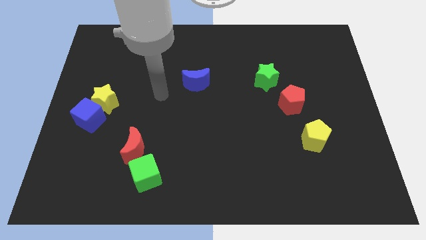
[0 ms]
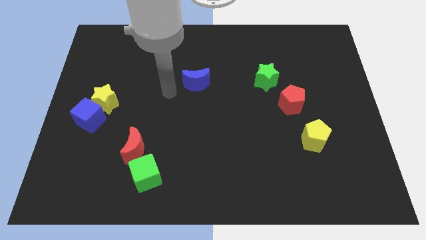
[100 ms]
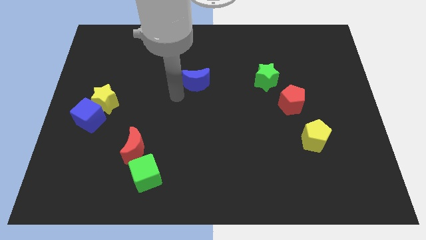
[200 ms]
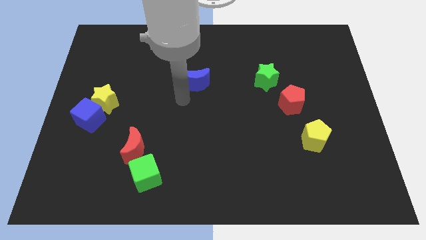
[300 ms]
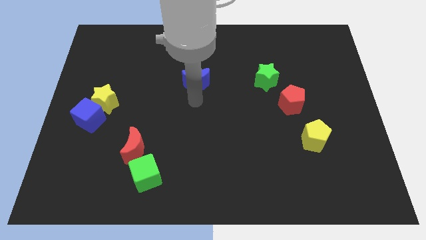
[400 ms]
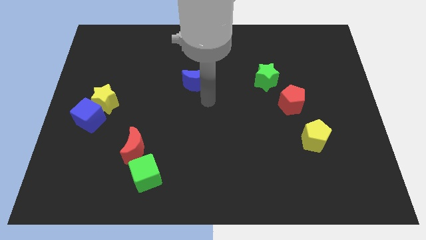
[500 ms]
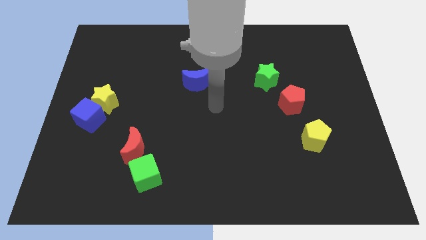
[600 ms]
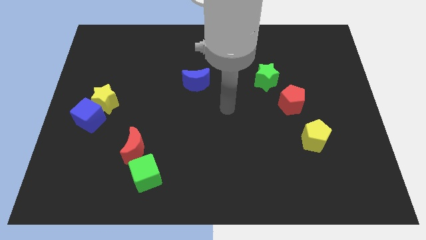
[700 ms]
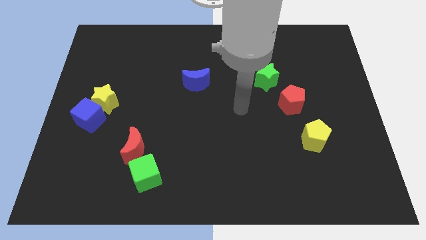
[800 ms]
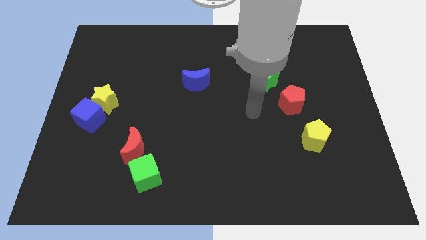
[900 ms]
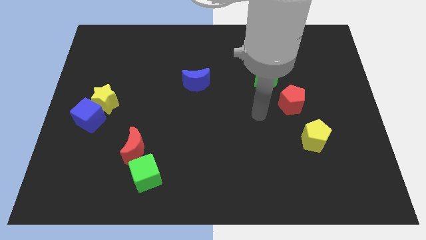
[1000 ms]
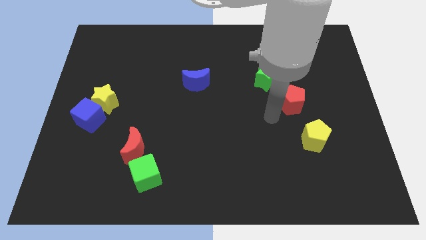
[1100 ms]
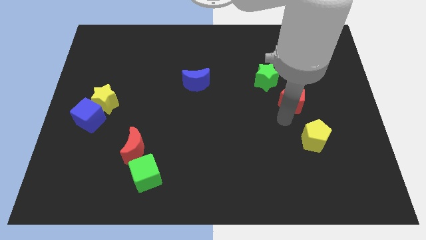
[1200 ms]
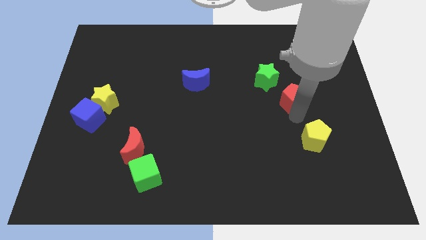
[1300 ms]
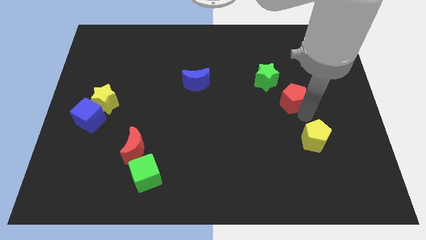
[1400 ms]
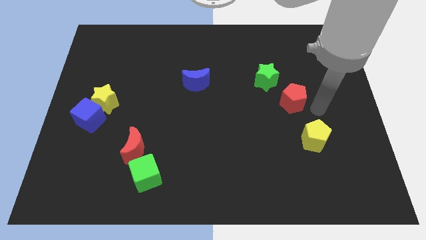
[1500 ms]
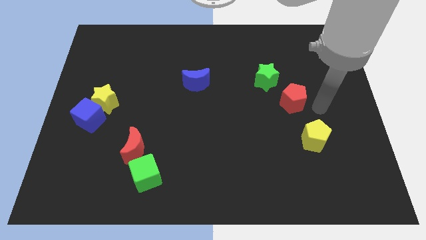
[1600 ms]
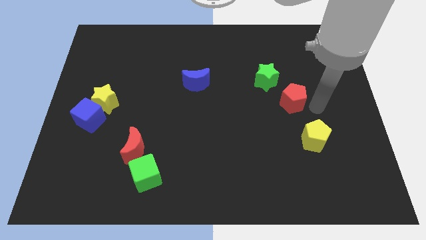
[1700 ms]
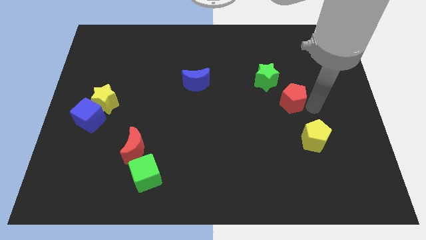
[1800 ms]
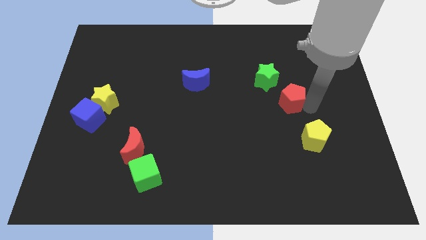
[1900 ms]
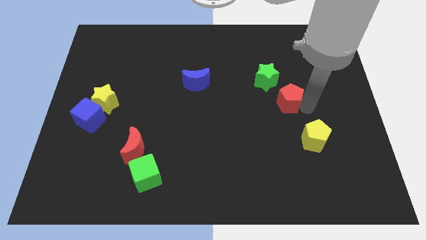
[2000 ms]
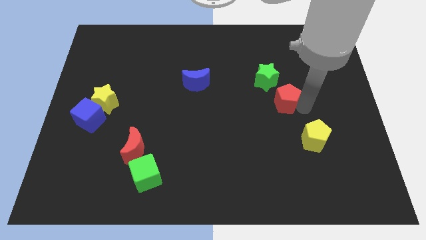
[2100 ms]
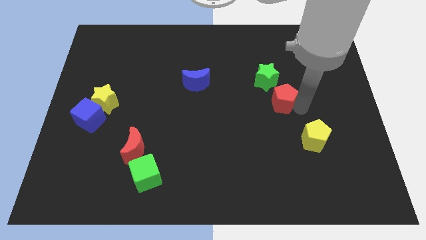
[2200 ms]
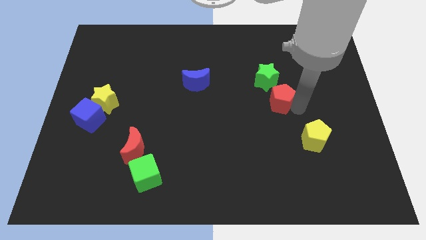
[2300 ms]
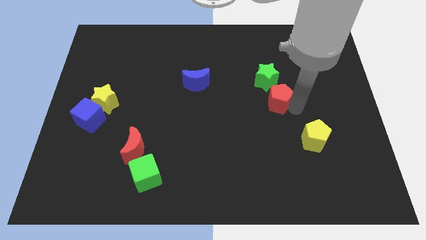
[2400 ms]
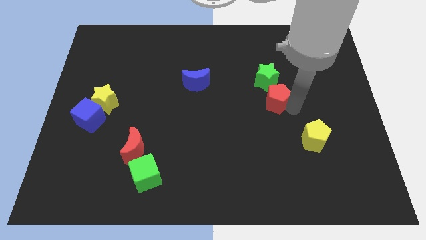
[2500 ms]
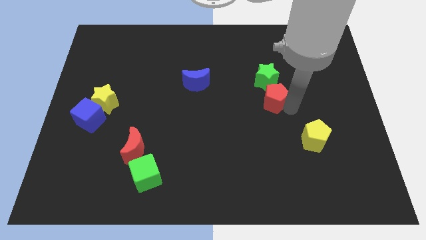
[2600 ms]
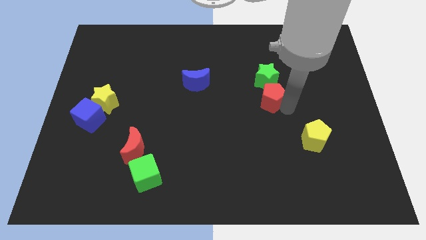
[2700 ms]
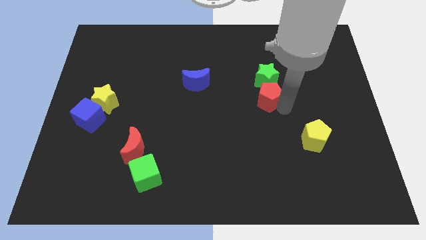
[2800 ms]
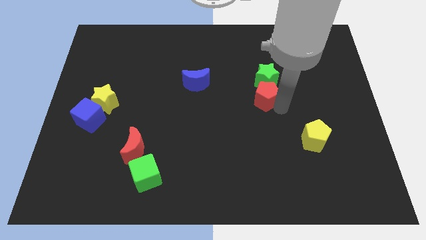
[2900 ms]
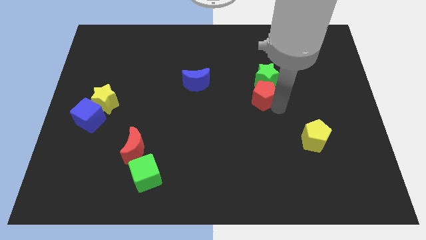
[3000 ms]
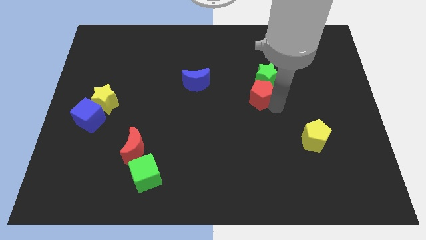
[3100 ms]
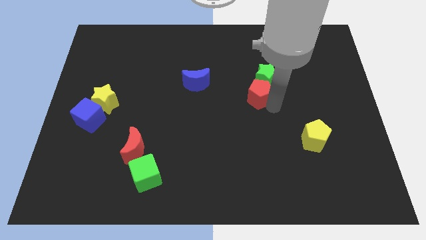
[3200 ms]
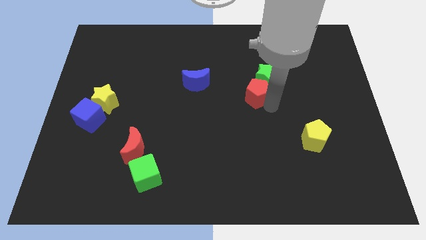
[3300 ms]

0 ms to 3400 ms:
slightly push the red pentagon up and then to the left

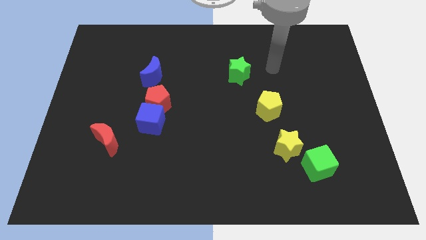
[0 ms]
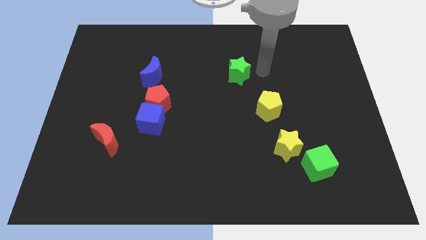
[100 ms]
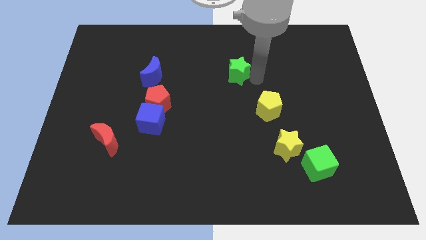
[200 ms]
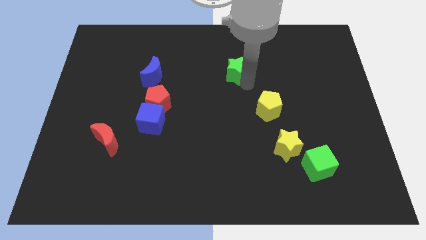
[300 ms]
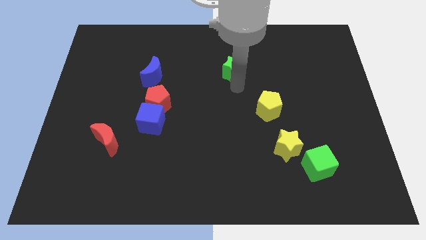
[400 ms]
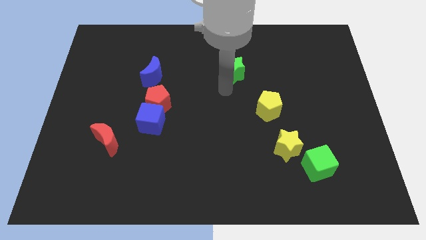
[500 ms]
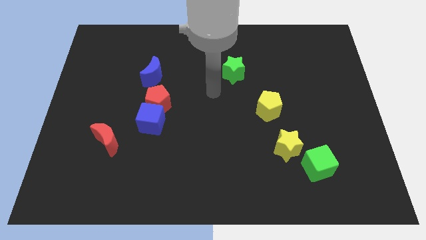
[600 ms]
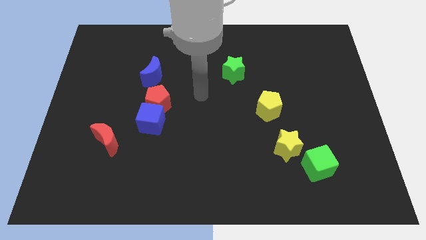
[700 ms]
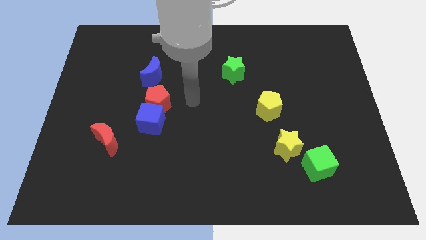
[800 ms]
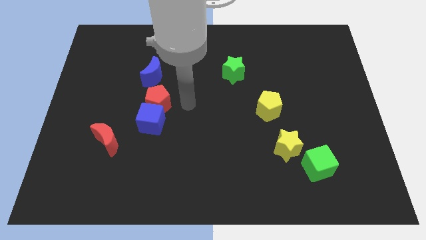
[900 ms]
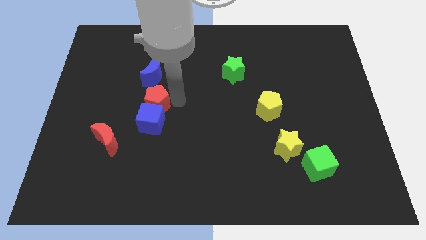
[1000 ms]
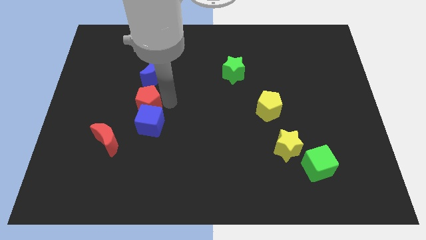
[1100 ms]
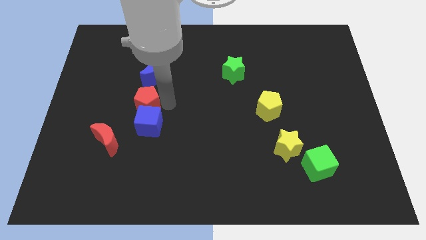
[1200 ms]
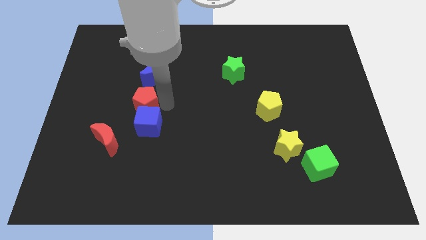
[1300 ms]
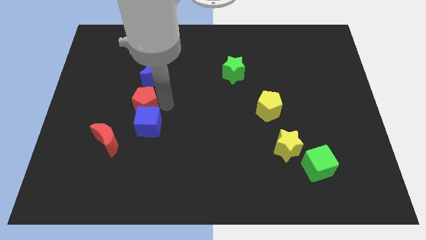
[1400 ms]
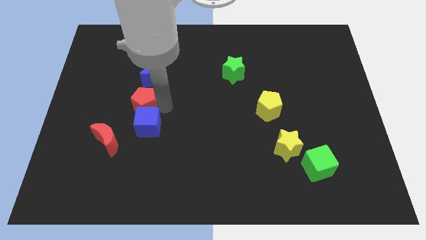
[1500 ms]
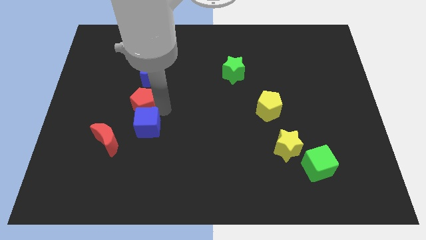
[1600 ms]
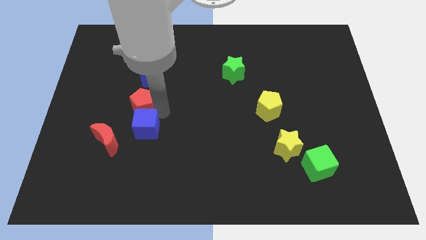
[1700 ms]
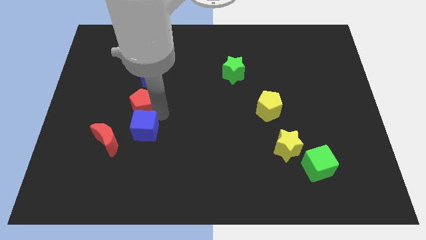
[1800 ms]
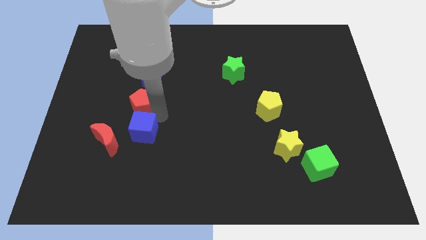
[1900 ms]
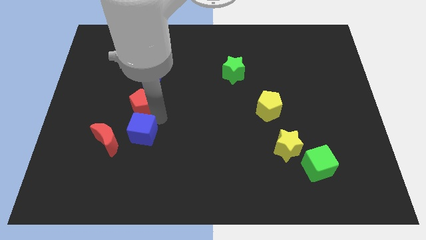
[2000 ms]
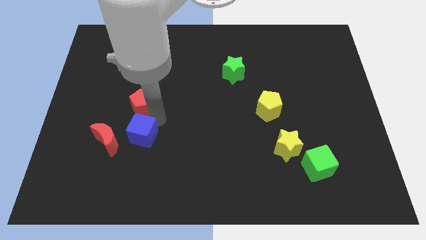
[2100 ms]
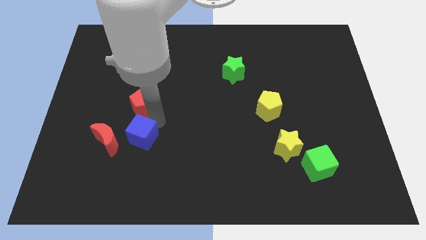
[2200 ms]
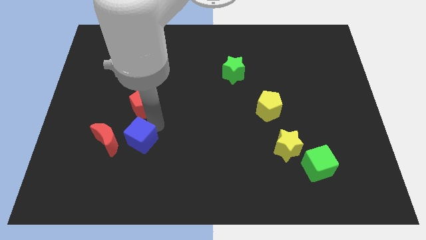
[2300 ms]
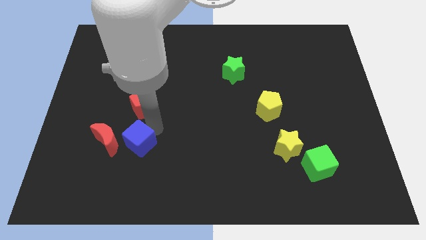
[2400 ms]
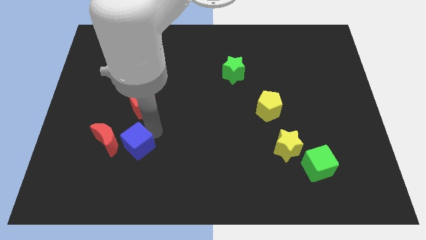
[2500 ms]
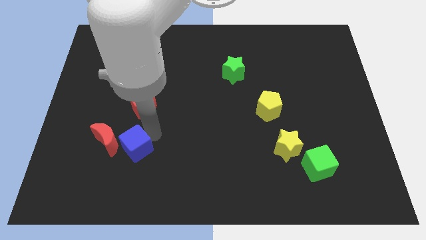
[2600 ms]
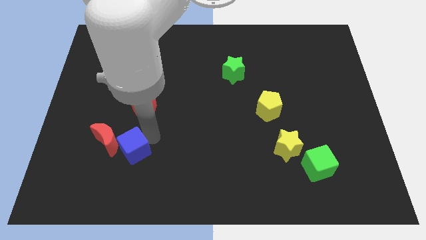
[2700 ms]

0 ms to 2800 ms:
push the blue cube downwards and then left somewhat

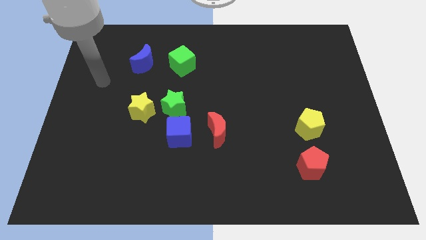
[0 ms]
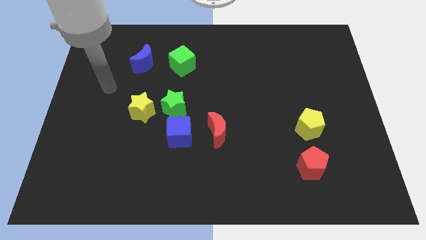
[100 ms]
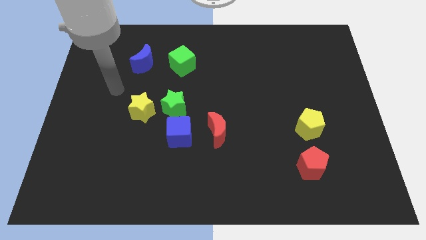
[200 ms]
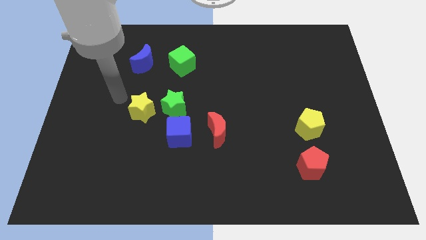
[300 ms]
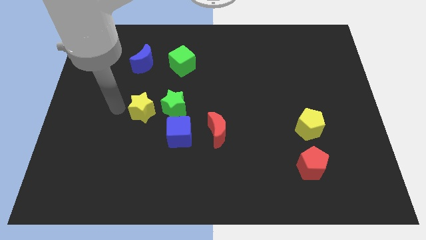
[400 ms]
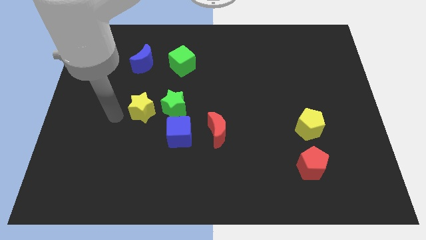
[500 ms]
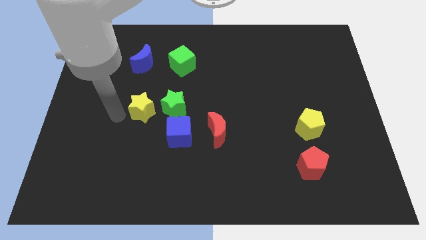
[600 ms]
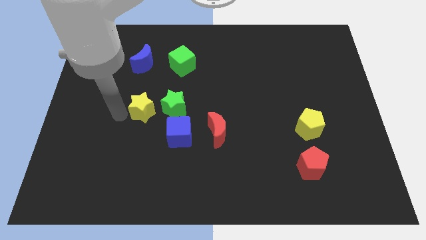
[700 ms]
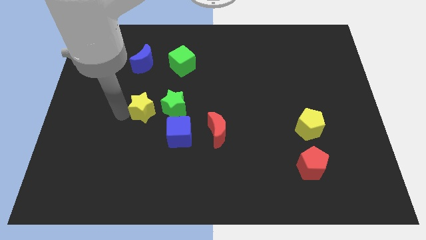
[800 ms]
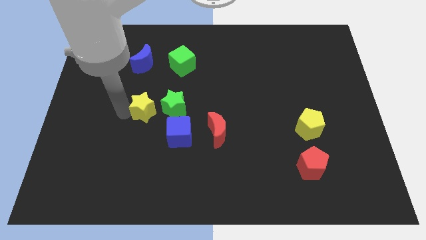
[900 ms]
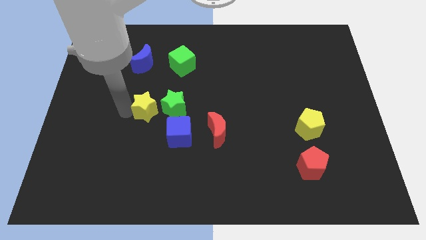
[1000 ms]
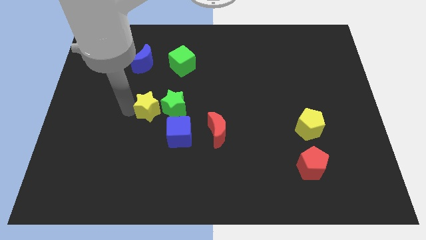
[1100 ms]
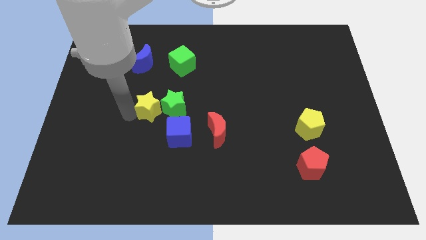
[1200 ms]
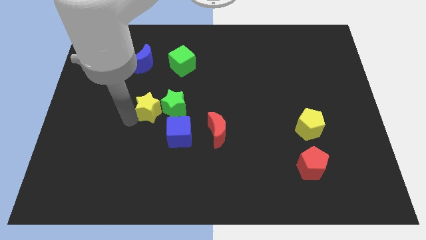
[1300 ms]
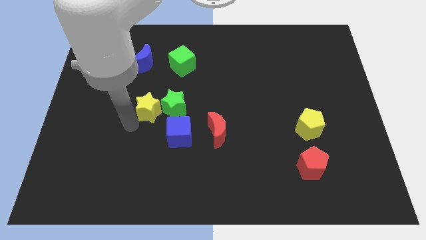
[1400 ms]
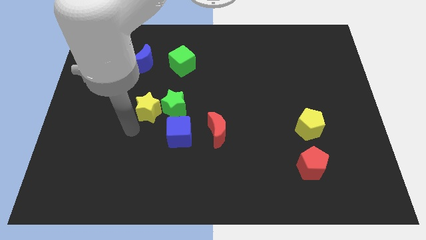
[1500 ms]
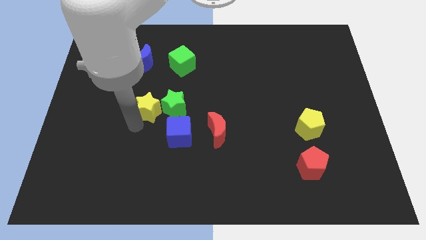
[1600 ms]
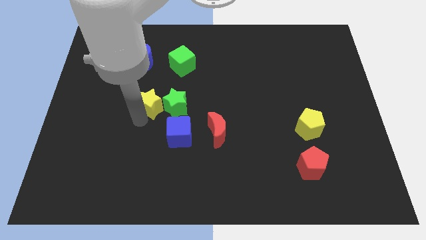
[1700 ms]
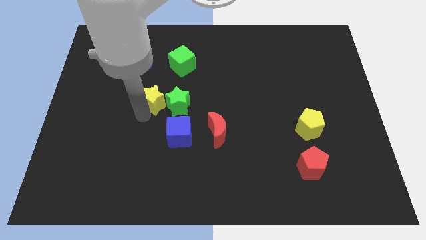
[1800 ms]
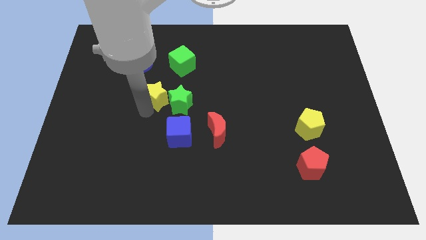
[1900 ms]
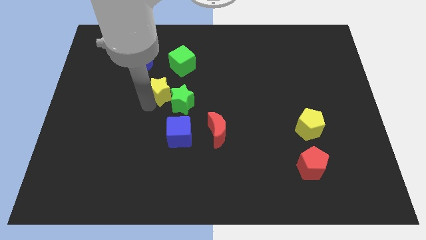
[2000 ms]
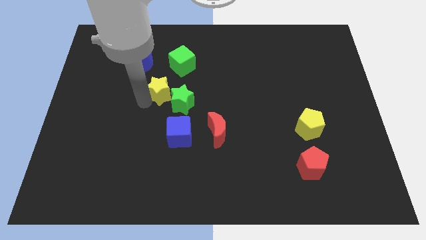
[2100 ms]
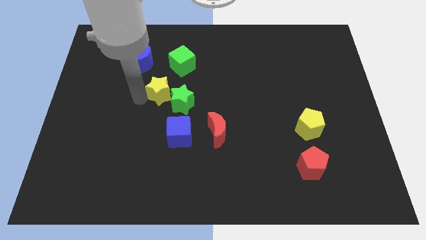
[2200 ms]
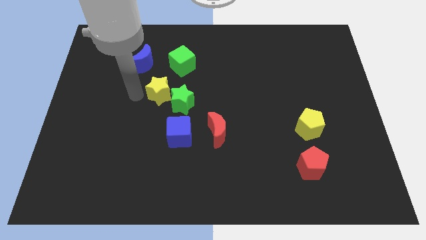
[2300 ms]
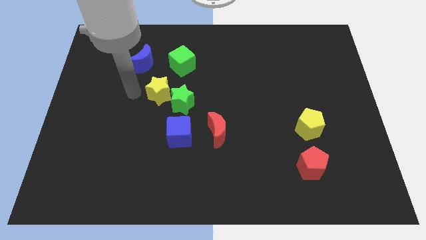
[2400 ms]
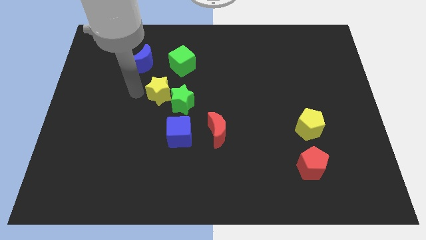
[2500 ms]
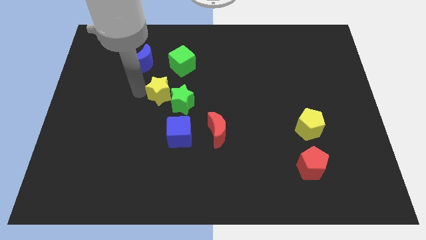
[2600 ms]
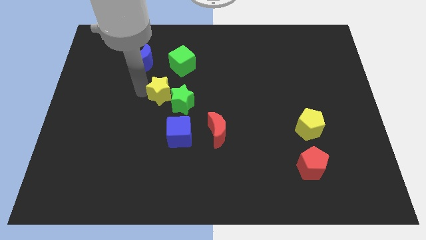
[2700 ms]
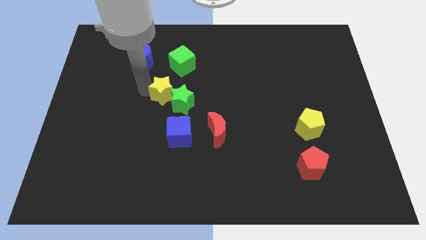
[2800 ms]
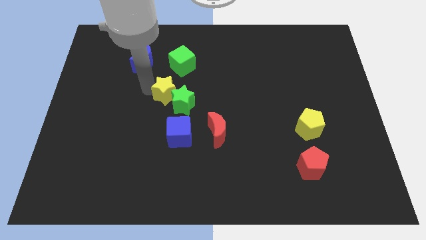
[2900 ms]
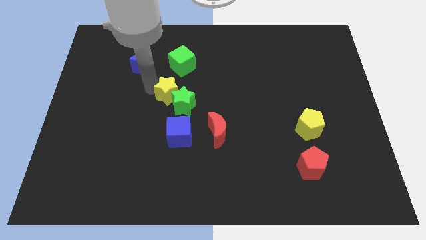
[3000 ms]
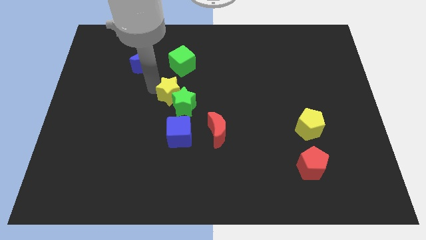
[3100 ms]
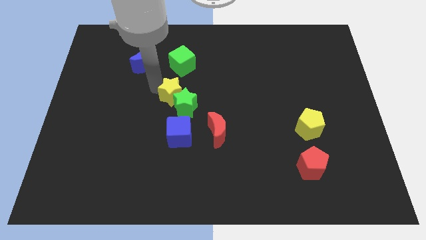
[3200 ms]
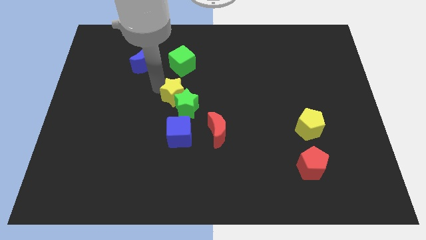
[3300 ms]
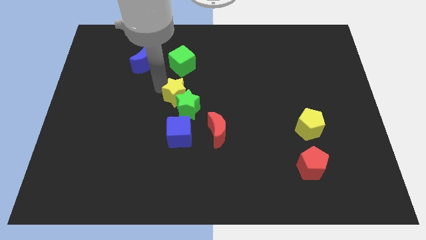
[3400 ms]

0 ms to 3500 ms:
slightly push the yellow star to the right
